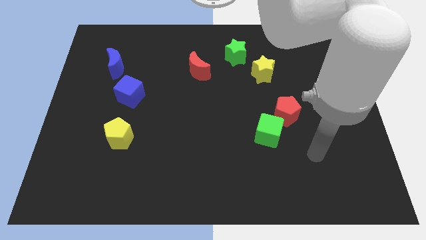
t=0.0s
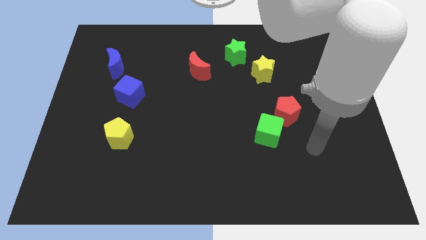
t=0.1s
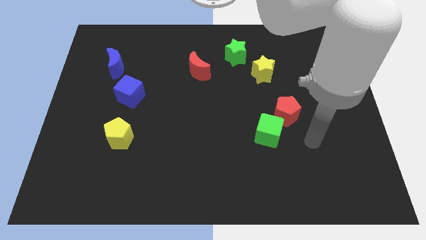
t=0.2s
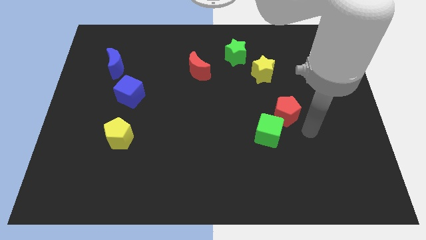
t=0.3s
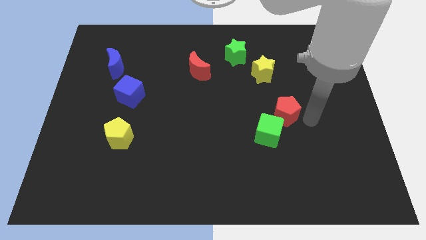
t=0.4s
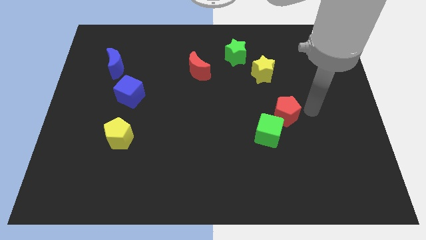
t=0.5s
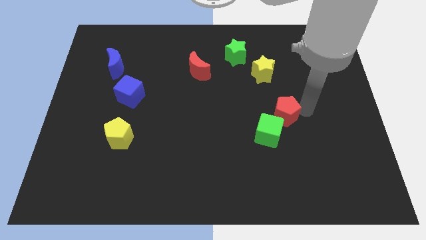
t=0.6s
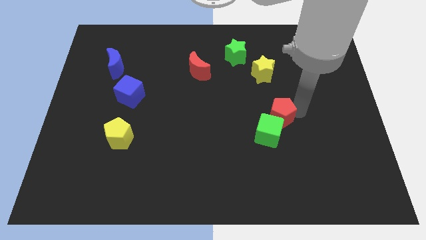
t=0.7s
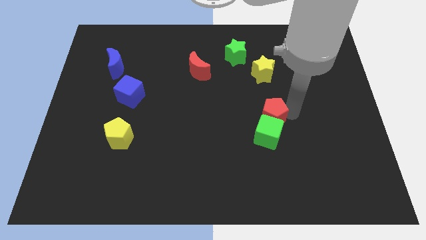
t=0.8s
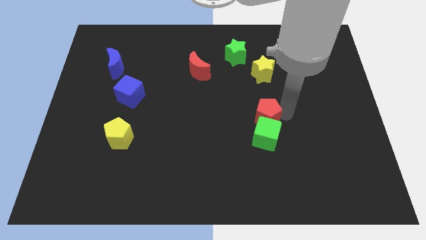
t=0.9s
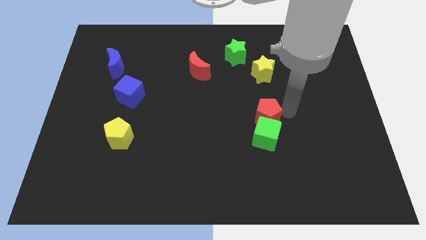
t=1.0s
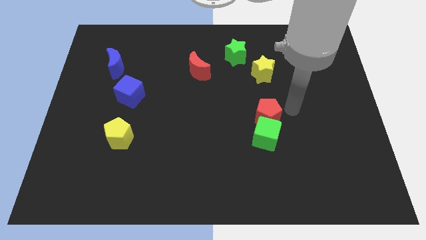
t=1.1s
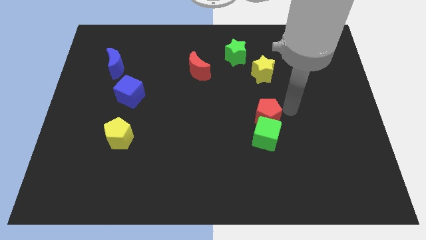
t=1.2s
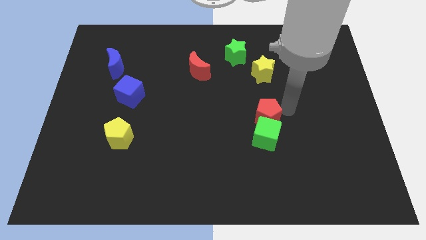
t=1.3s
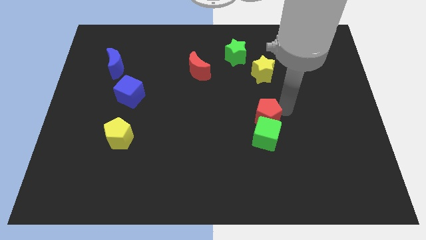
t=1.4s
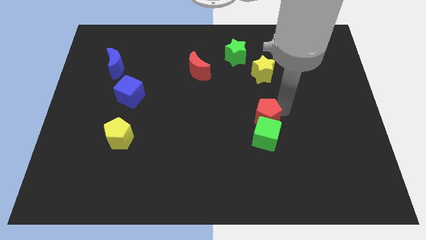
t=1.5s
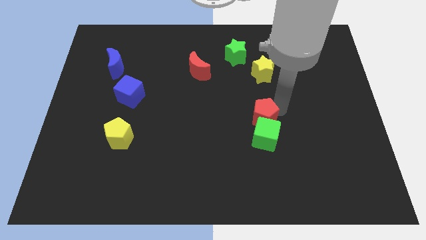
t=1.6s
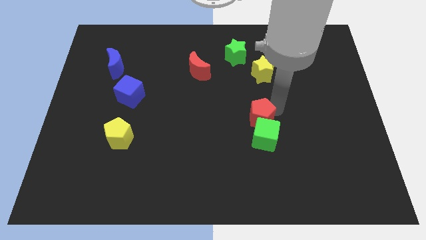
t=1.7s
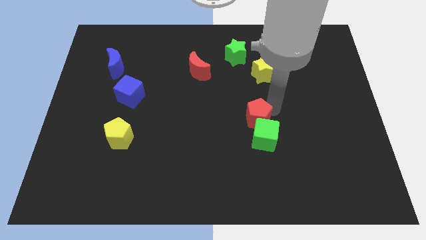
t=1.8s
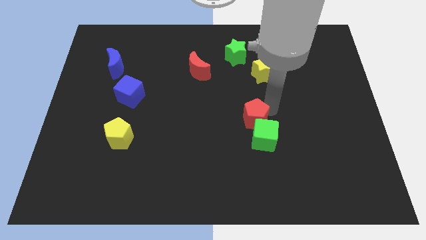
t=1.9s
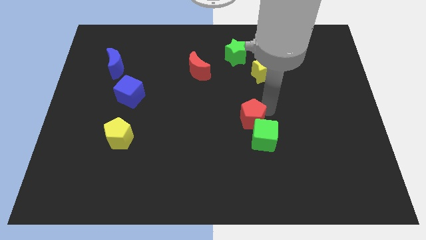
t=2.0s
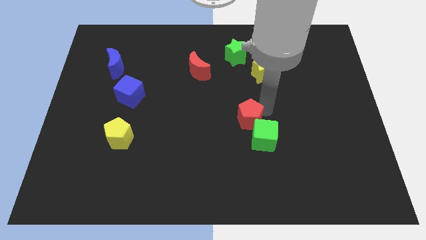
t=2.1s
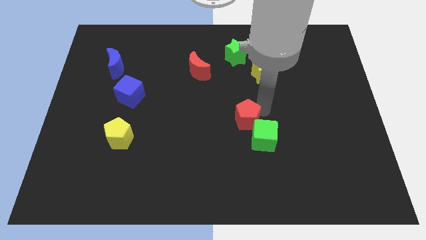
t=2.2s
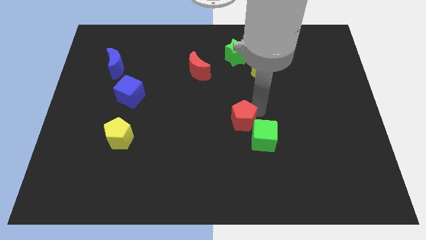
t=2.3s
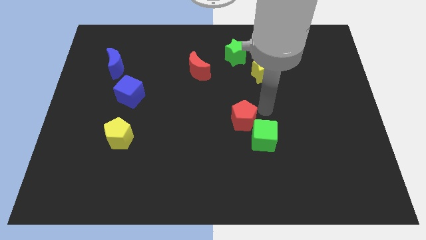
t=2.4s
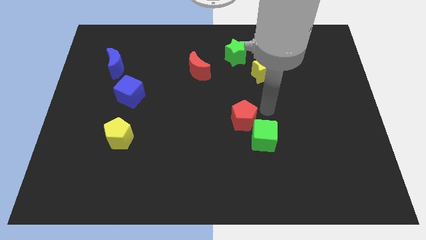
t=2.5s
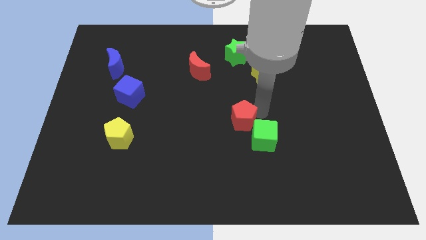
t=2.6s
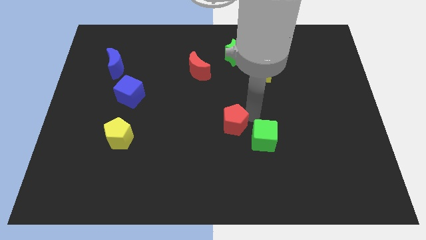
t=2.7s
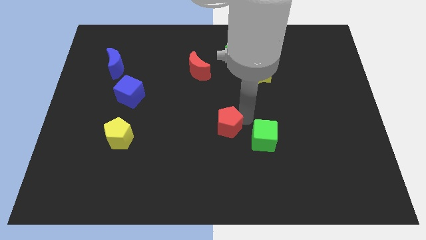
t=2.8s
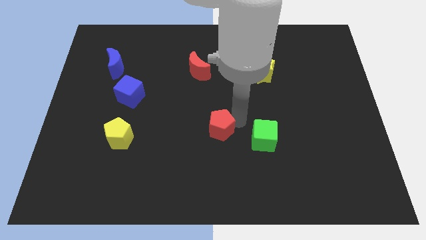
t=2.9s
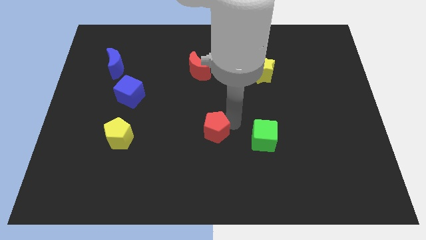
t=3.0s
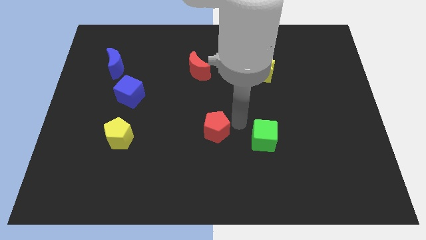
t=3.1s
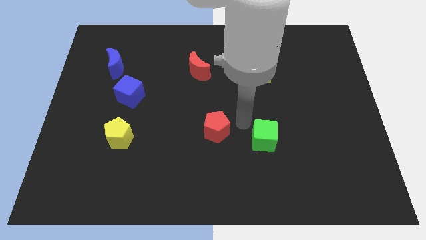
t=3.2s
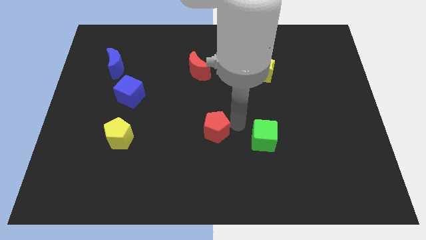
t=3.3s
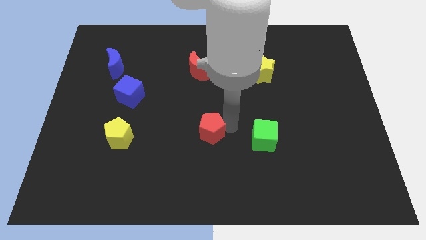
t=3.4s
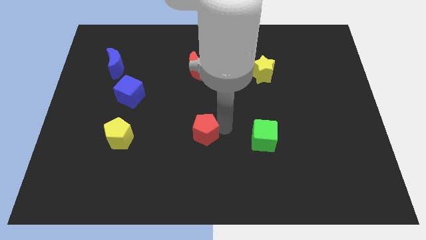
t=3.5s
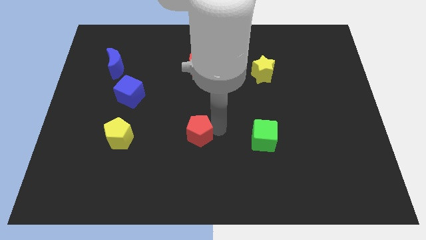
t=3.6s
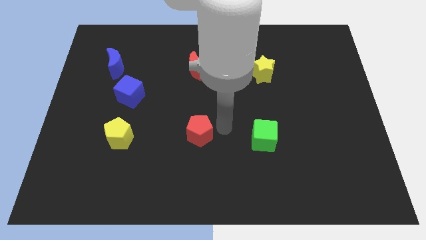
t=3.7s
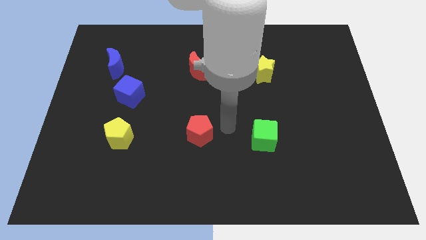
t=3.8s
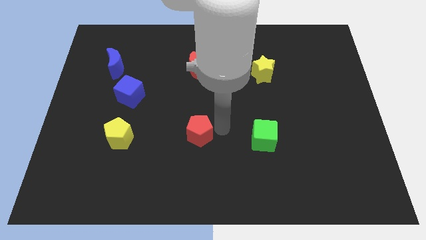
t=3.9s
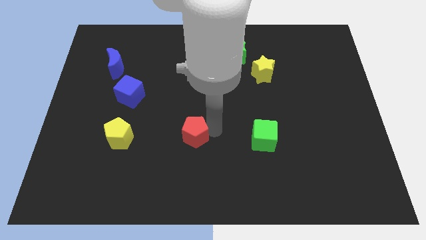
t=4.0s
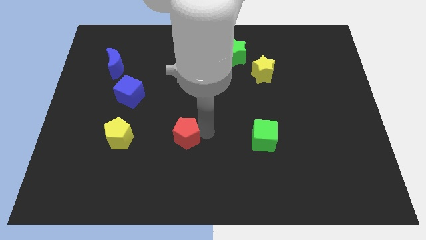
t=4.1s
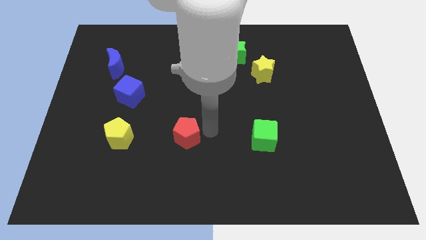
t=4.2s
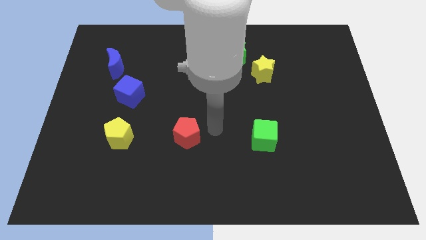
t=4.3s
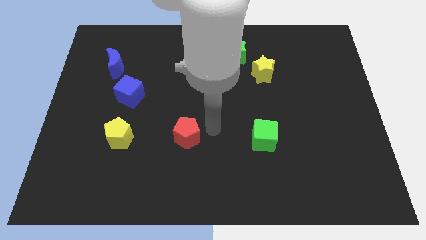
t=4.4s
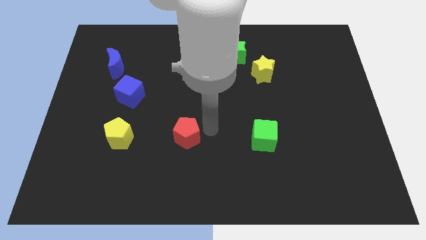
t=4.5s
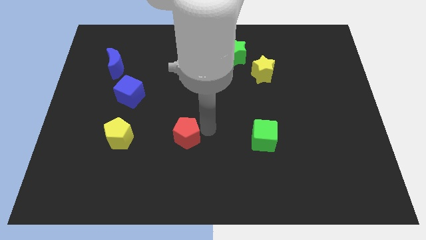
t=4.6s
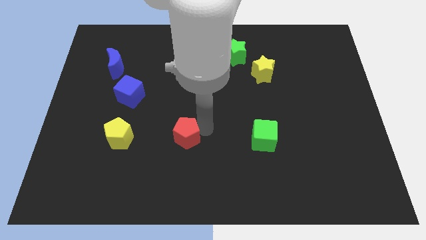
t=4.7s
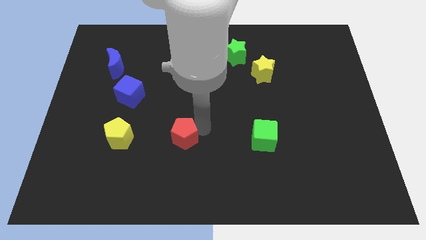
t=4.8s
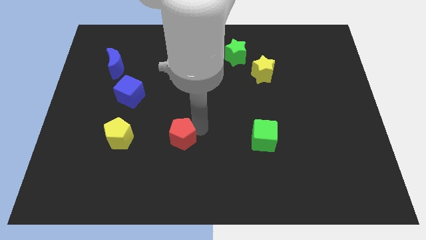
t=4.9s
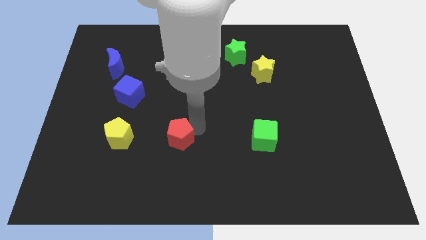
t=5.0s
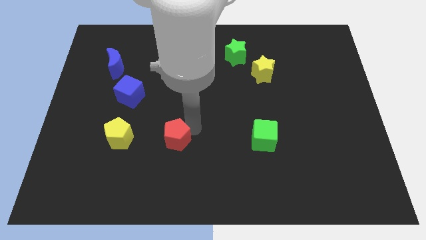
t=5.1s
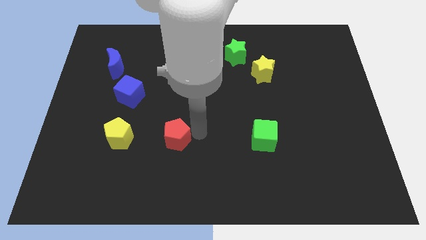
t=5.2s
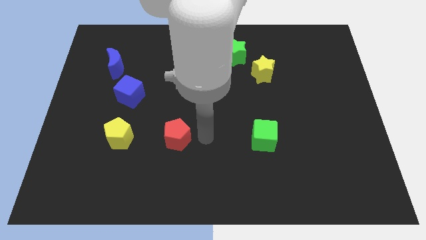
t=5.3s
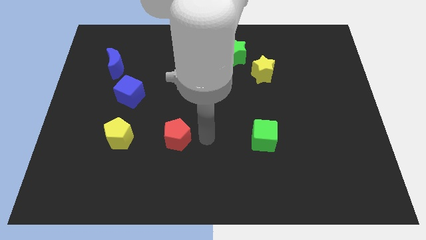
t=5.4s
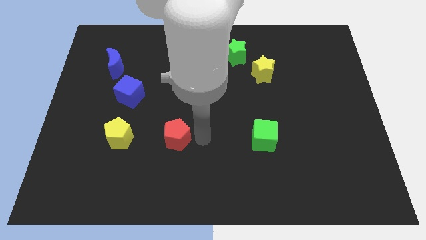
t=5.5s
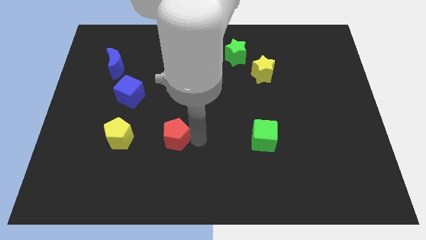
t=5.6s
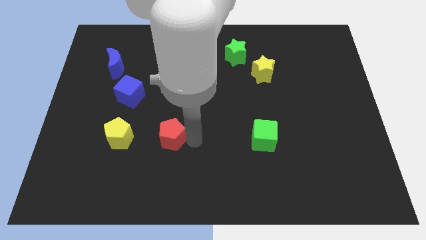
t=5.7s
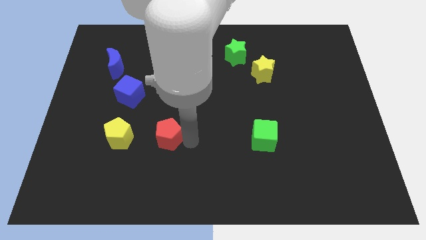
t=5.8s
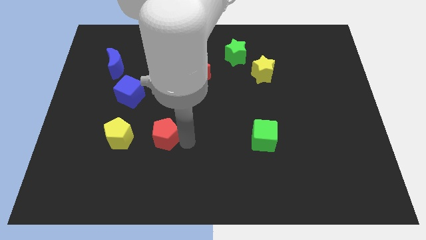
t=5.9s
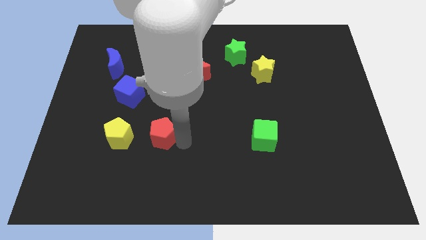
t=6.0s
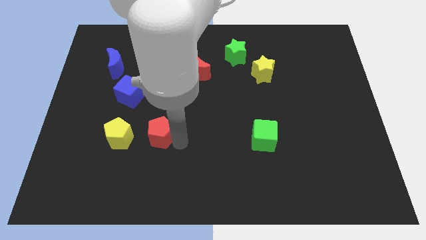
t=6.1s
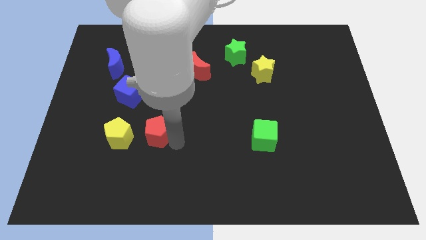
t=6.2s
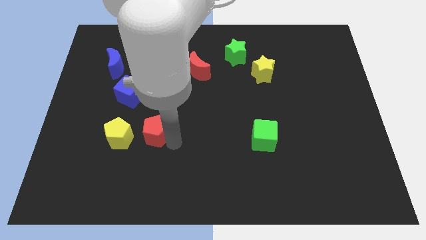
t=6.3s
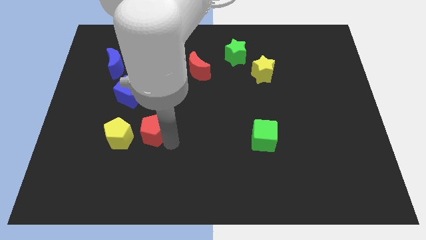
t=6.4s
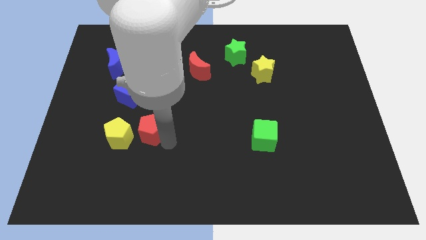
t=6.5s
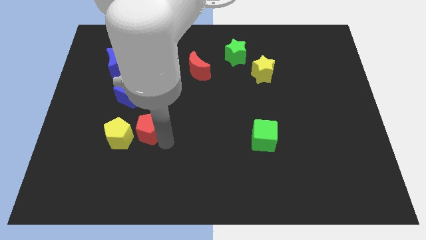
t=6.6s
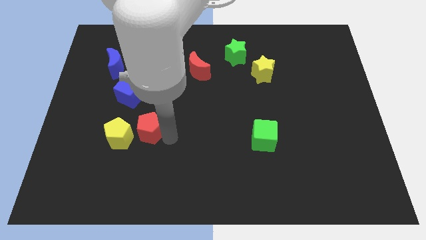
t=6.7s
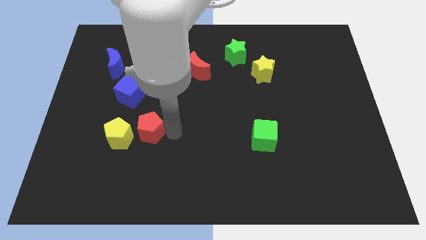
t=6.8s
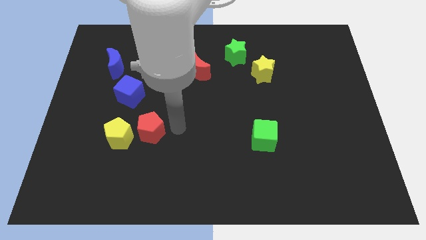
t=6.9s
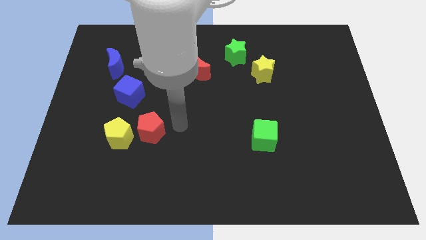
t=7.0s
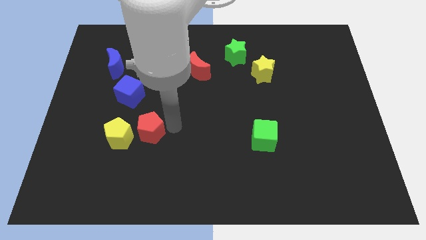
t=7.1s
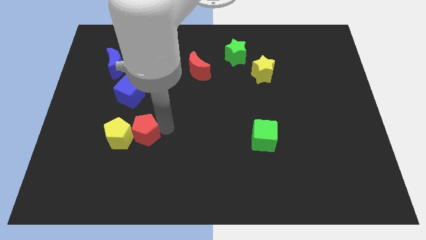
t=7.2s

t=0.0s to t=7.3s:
move the red pentagon close to the yellow pentagon
